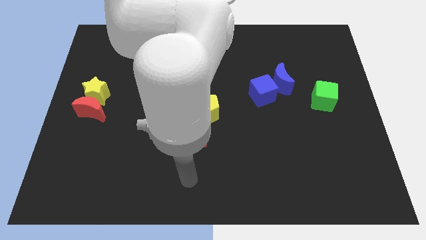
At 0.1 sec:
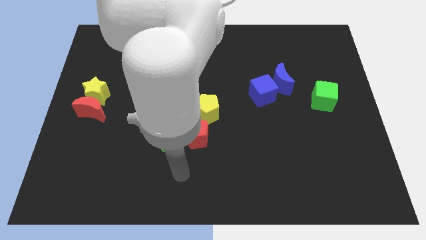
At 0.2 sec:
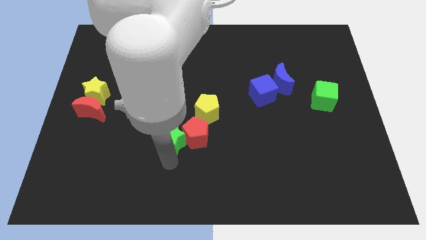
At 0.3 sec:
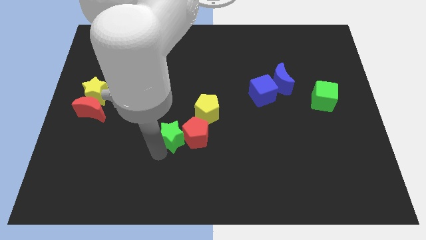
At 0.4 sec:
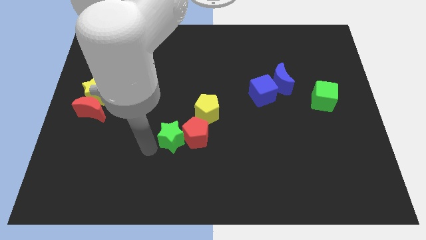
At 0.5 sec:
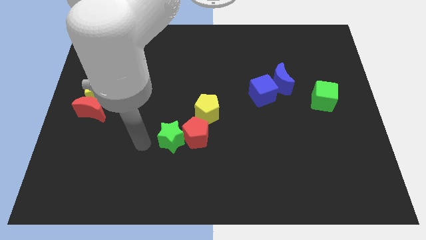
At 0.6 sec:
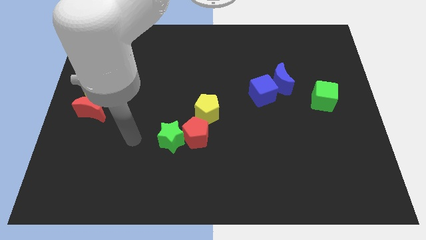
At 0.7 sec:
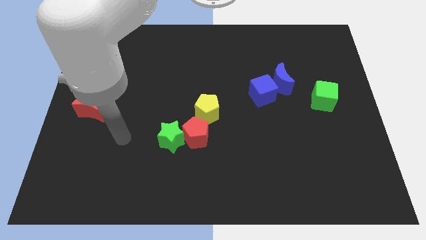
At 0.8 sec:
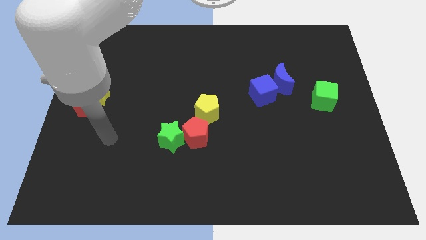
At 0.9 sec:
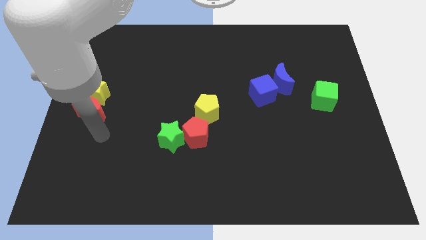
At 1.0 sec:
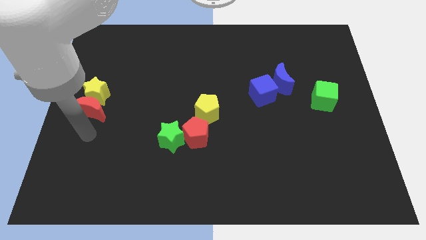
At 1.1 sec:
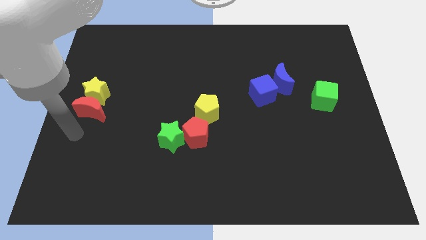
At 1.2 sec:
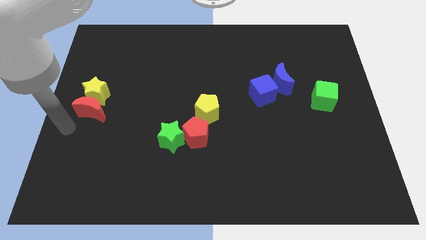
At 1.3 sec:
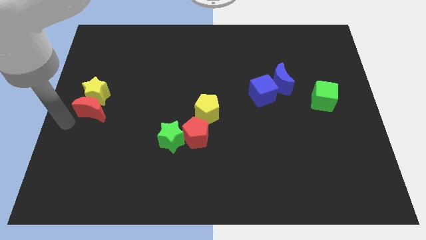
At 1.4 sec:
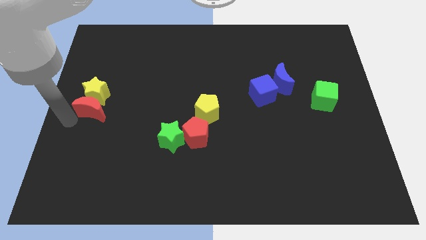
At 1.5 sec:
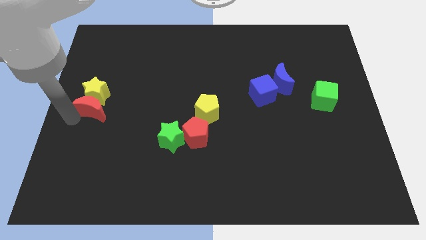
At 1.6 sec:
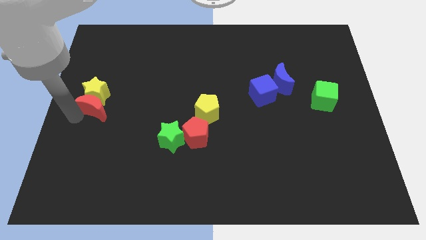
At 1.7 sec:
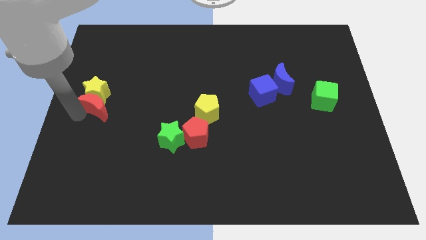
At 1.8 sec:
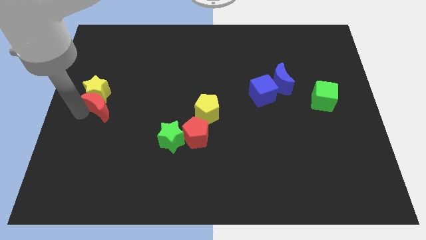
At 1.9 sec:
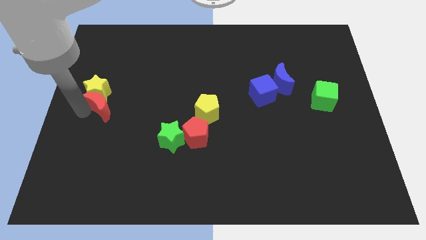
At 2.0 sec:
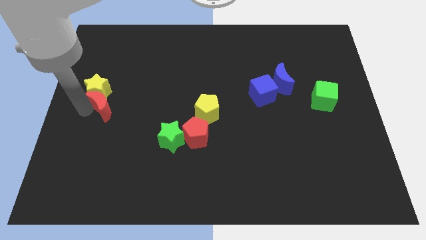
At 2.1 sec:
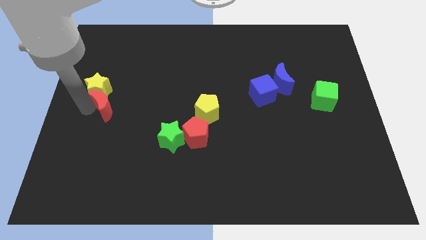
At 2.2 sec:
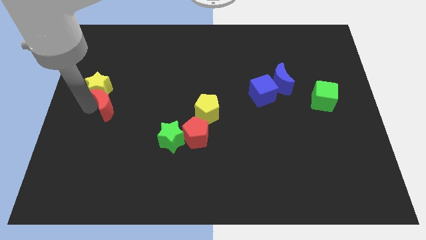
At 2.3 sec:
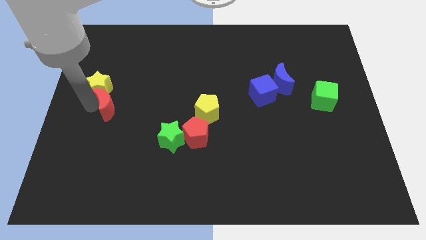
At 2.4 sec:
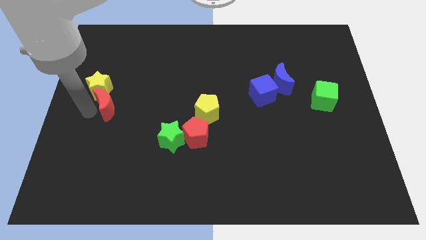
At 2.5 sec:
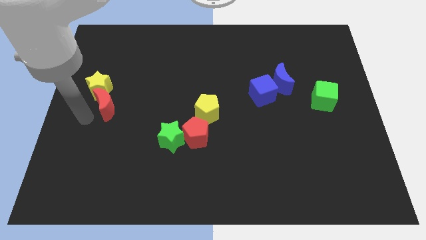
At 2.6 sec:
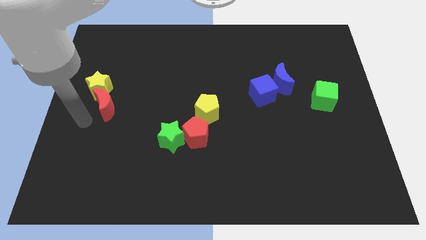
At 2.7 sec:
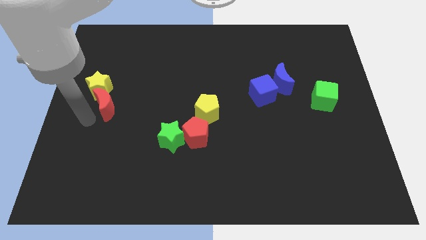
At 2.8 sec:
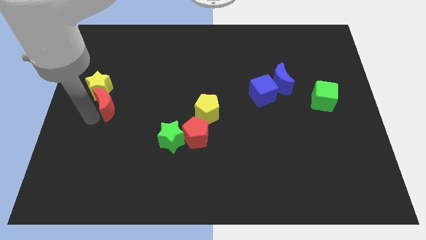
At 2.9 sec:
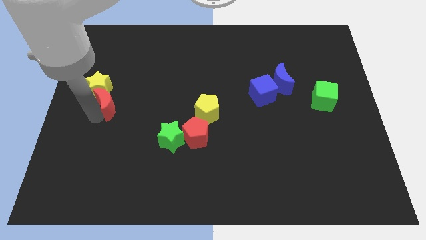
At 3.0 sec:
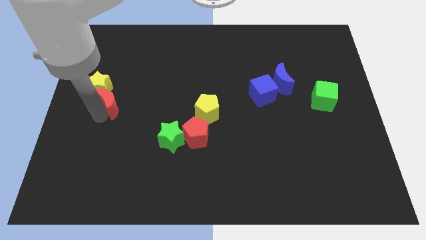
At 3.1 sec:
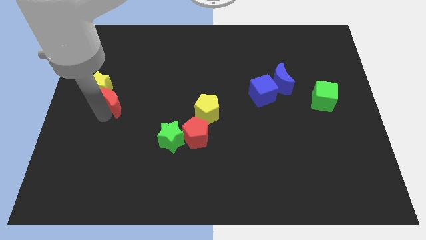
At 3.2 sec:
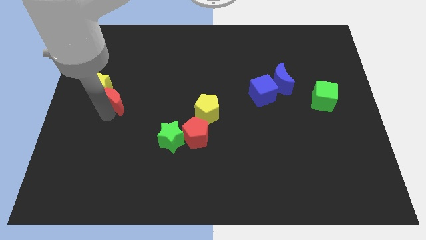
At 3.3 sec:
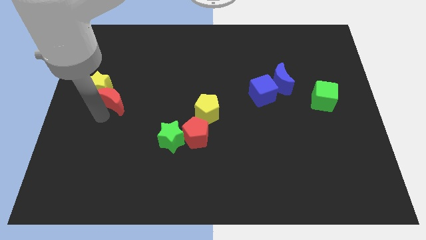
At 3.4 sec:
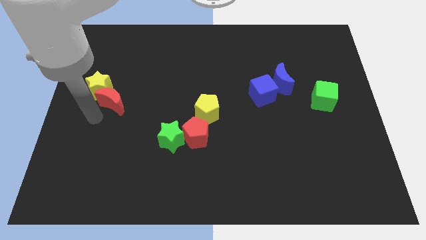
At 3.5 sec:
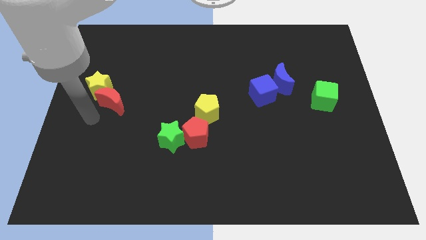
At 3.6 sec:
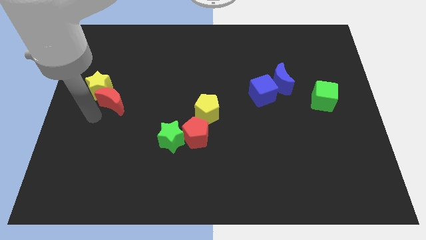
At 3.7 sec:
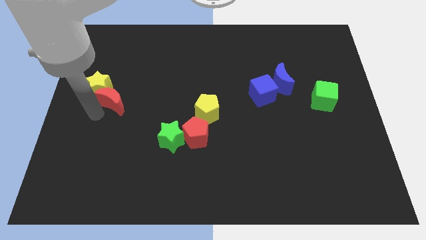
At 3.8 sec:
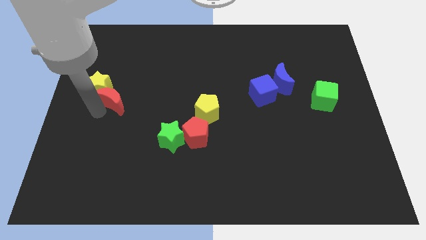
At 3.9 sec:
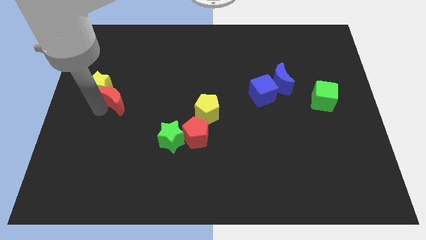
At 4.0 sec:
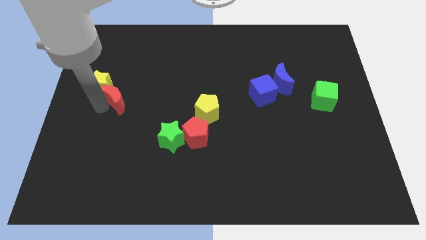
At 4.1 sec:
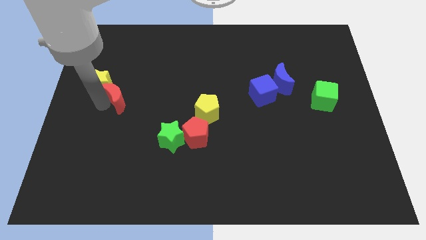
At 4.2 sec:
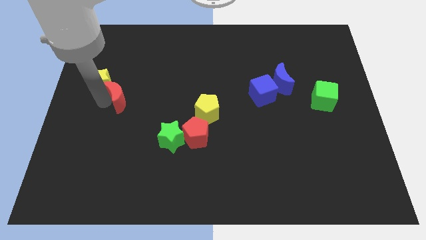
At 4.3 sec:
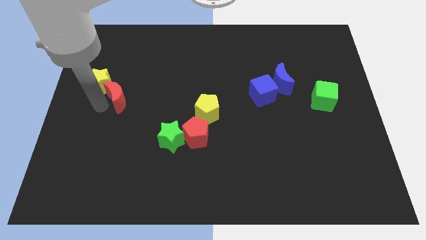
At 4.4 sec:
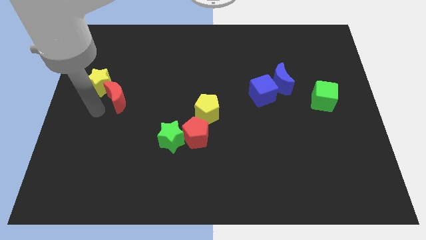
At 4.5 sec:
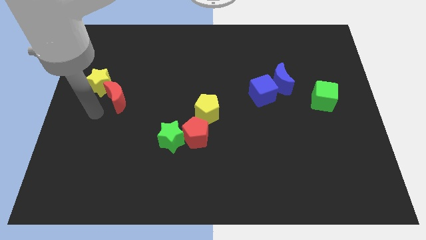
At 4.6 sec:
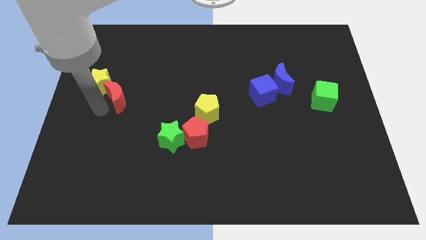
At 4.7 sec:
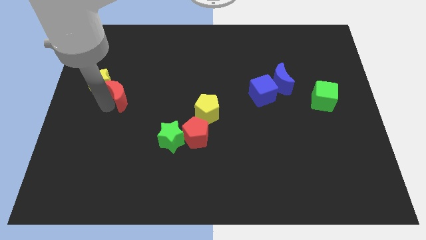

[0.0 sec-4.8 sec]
move the red moon somewhat upwards and to the right diagonally

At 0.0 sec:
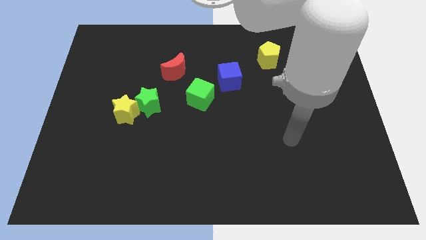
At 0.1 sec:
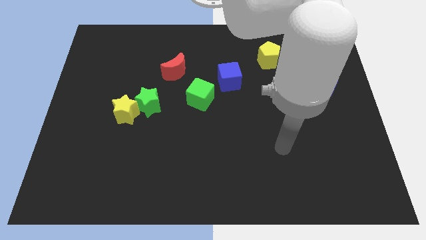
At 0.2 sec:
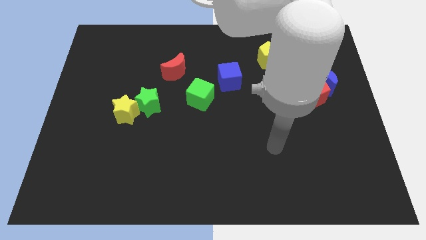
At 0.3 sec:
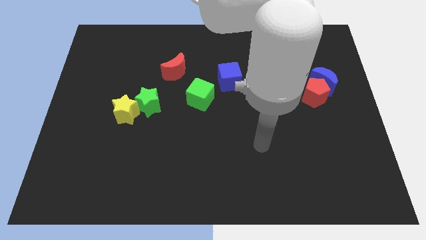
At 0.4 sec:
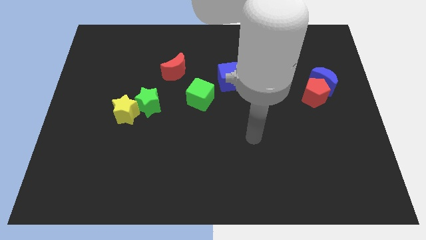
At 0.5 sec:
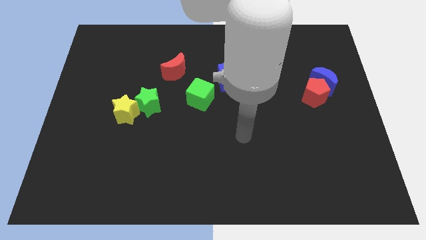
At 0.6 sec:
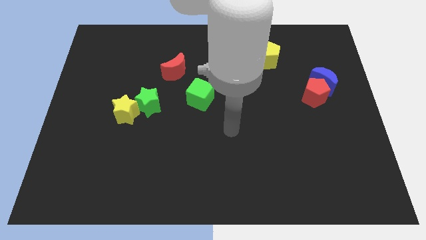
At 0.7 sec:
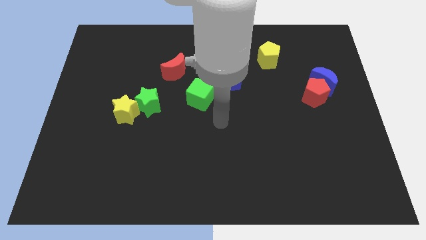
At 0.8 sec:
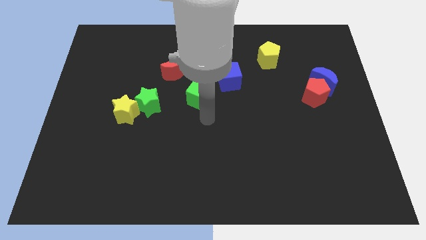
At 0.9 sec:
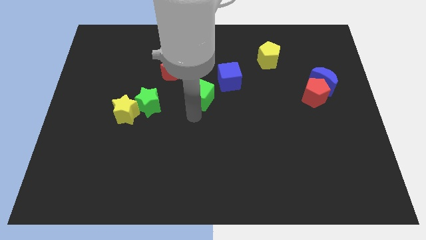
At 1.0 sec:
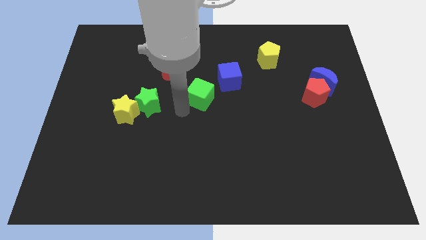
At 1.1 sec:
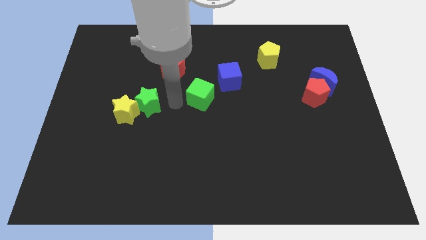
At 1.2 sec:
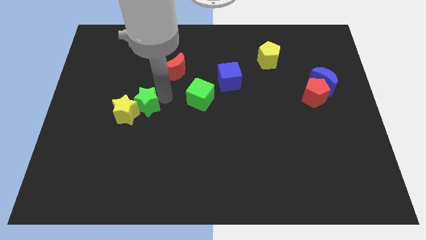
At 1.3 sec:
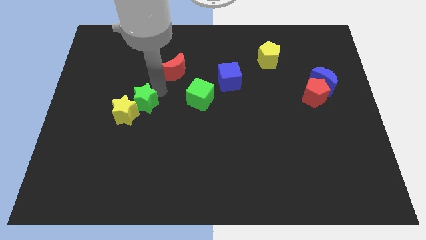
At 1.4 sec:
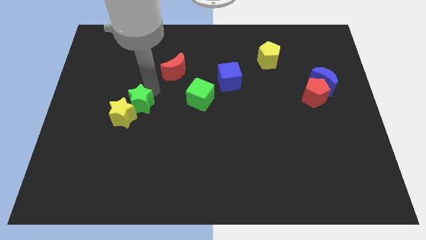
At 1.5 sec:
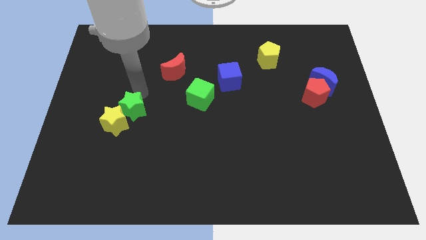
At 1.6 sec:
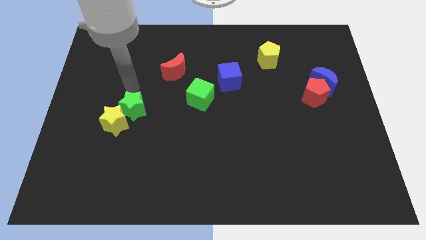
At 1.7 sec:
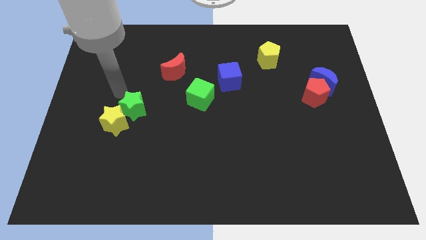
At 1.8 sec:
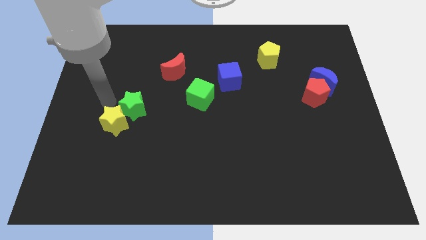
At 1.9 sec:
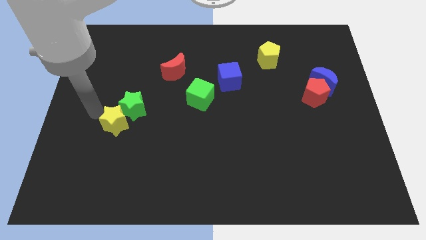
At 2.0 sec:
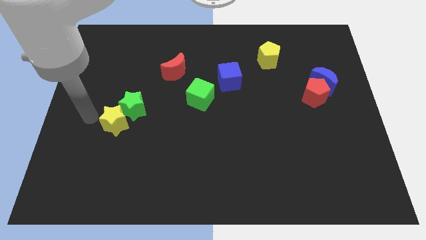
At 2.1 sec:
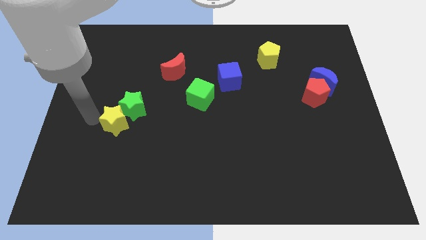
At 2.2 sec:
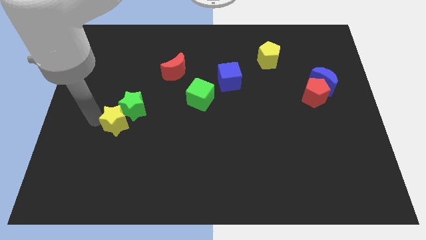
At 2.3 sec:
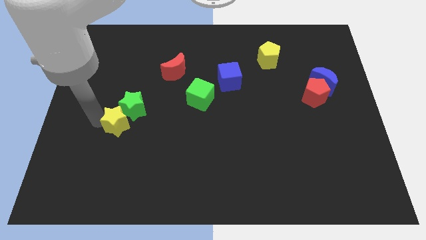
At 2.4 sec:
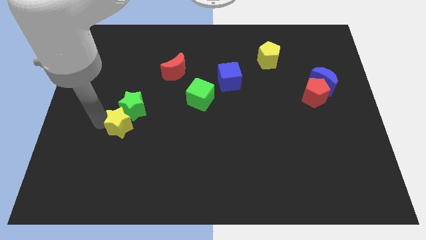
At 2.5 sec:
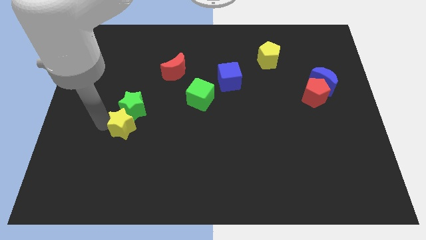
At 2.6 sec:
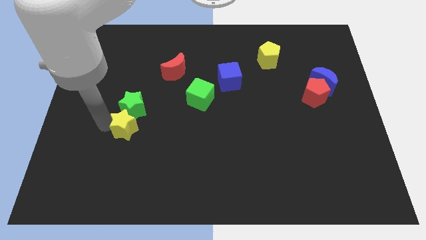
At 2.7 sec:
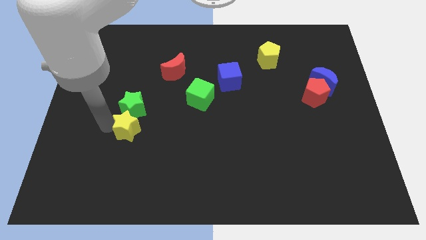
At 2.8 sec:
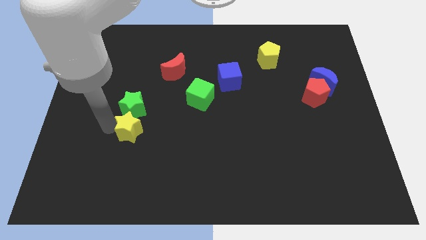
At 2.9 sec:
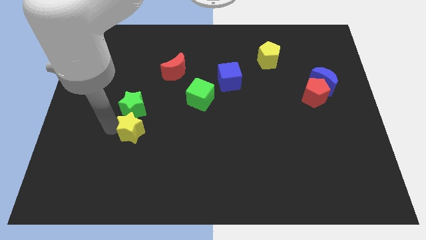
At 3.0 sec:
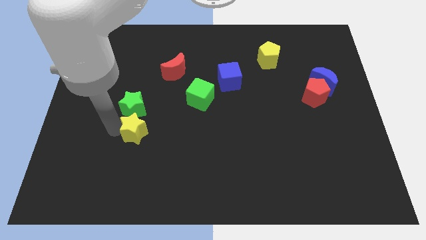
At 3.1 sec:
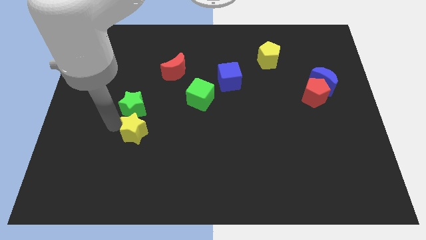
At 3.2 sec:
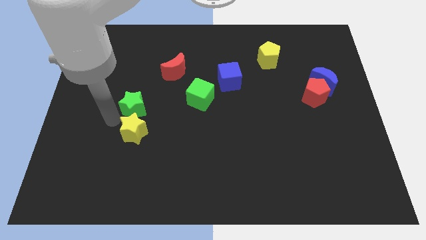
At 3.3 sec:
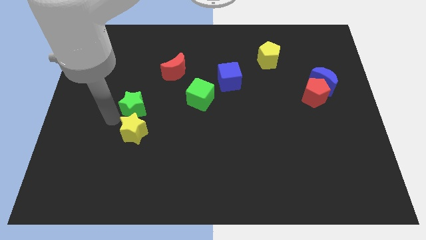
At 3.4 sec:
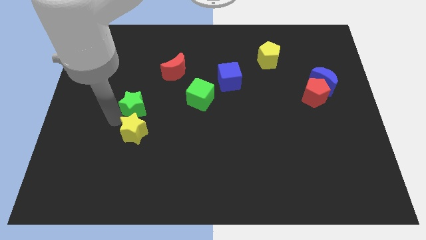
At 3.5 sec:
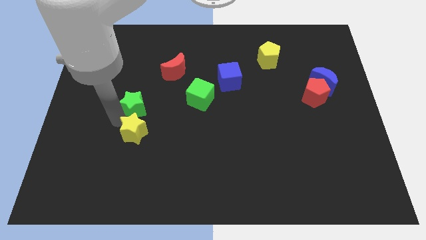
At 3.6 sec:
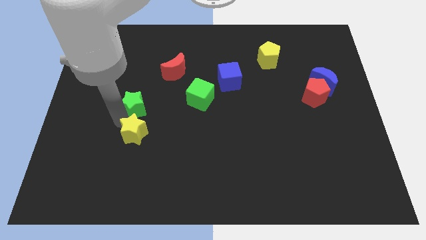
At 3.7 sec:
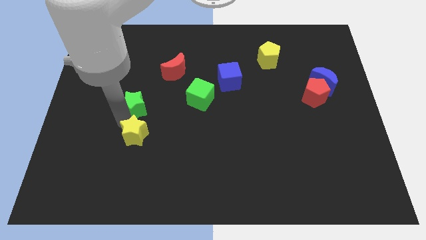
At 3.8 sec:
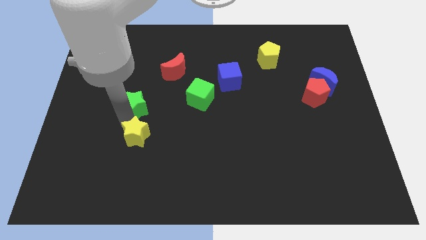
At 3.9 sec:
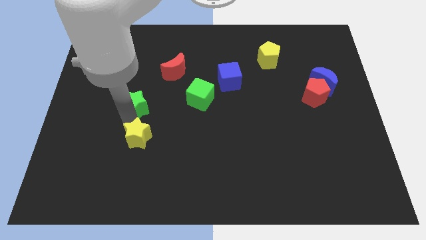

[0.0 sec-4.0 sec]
slightly slide the yellow star diagonally downwards and to the right
